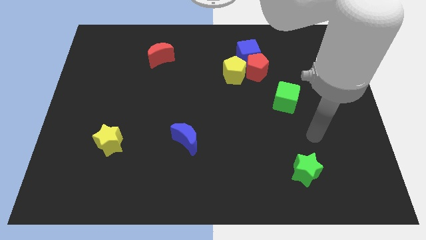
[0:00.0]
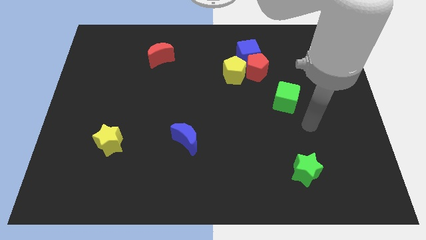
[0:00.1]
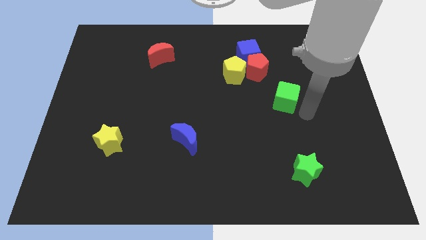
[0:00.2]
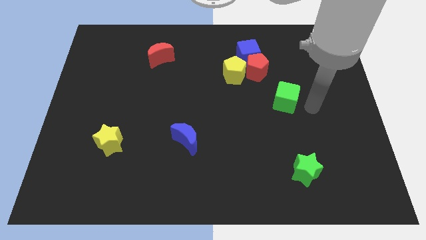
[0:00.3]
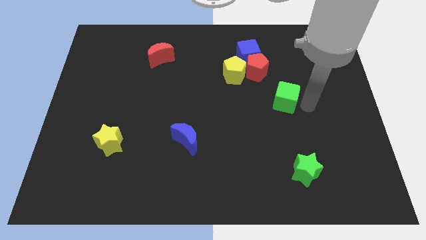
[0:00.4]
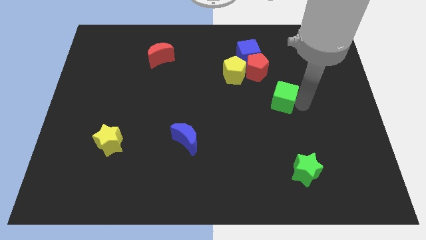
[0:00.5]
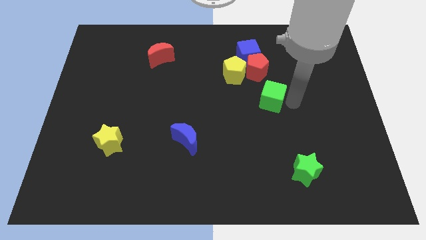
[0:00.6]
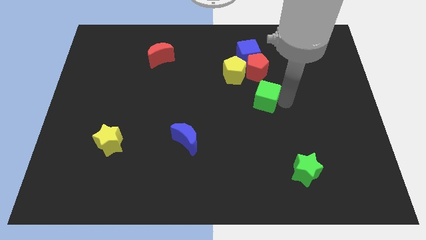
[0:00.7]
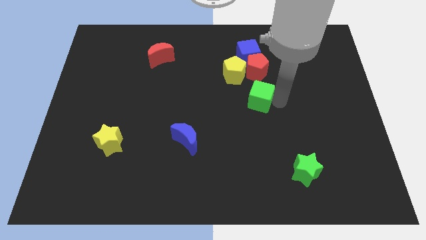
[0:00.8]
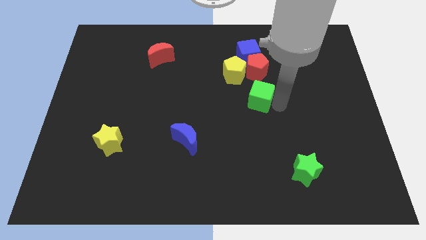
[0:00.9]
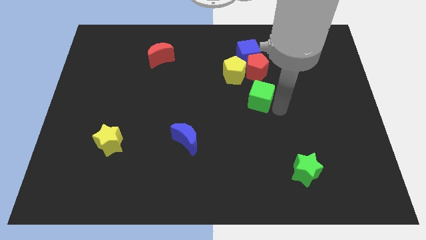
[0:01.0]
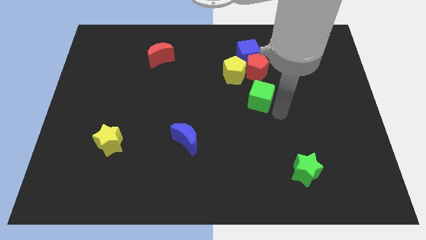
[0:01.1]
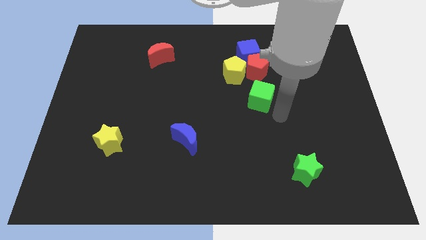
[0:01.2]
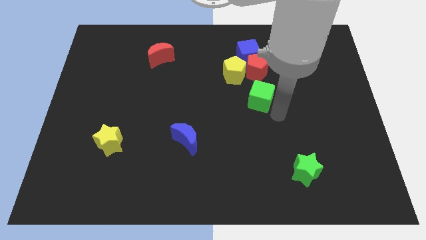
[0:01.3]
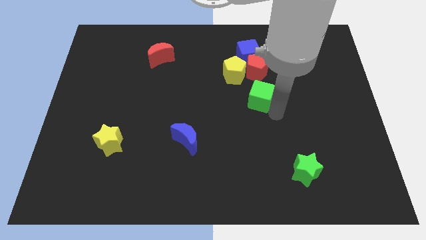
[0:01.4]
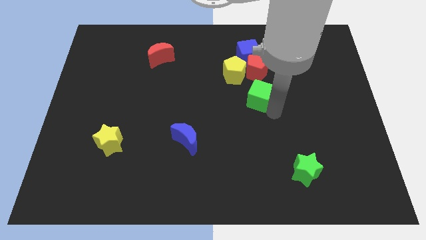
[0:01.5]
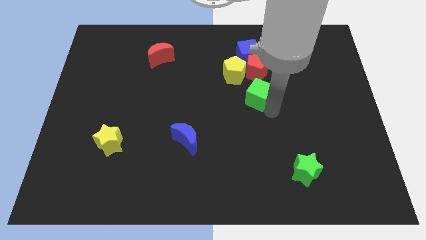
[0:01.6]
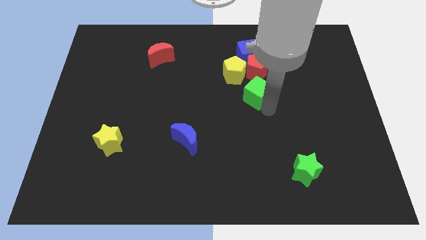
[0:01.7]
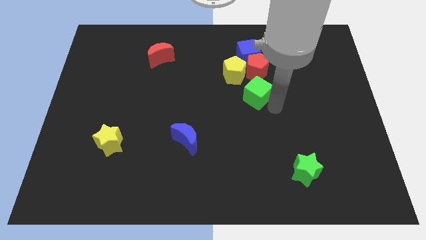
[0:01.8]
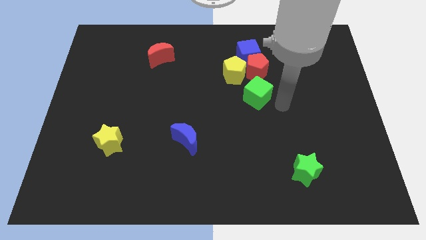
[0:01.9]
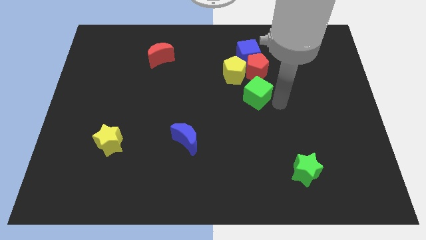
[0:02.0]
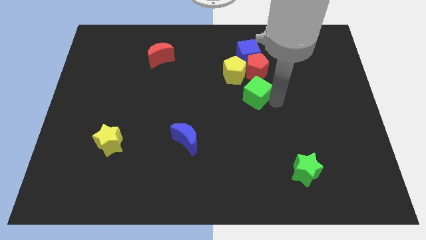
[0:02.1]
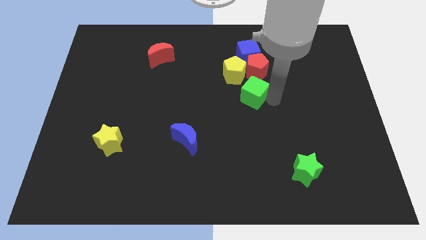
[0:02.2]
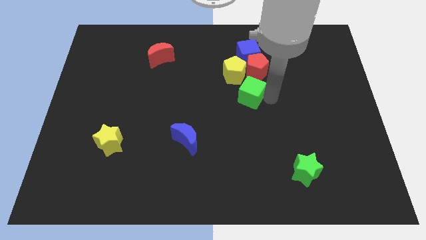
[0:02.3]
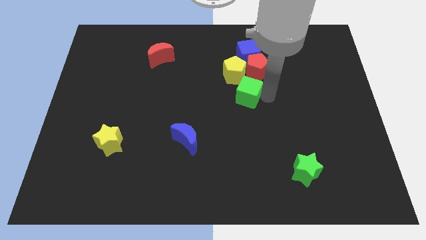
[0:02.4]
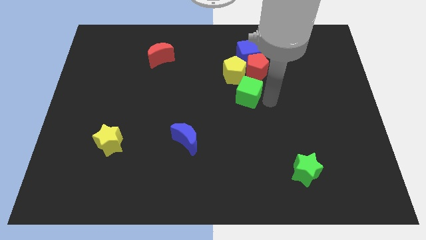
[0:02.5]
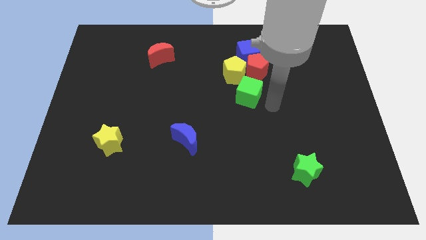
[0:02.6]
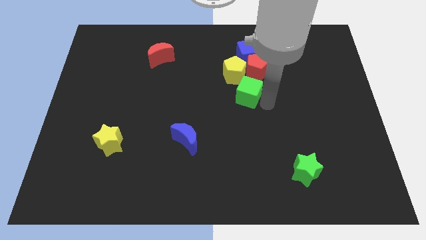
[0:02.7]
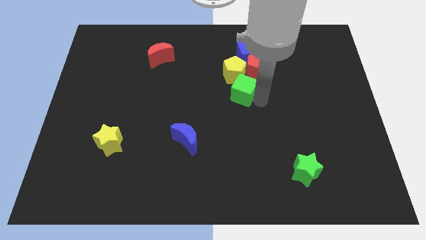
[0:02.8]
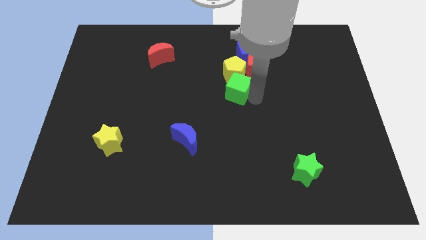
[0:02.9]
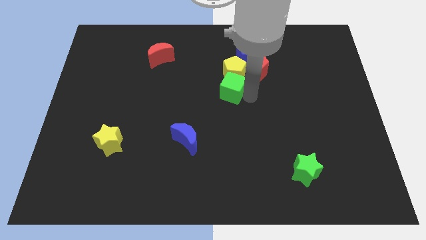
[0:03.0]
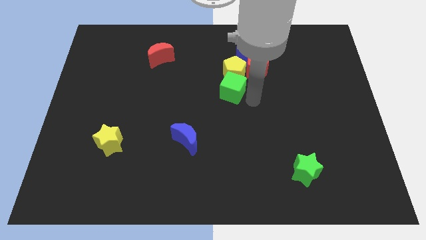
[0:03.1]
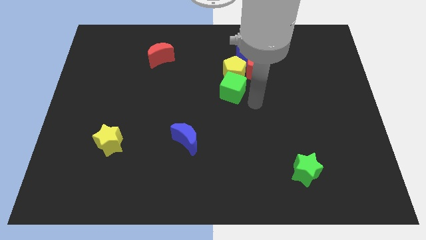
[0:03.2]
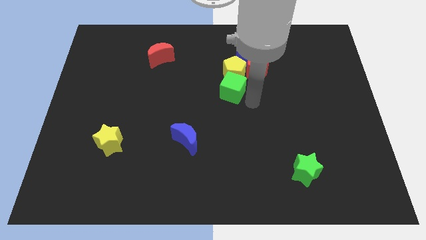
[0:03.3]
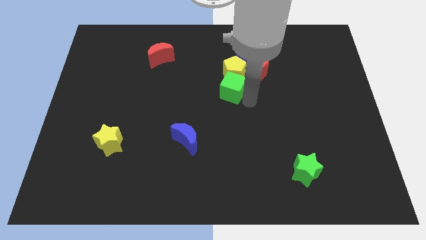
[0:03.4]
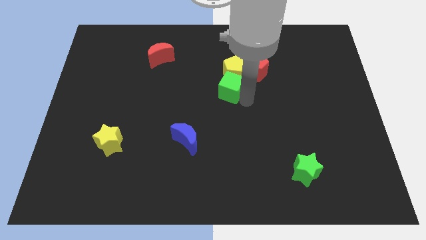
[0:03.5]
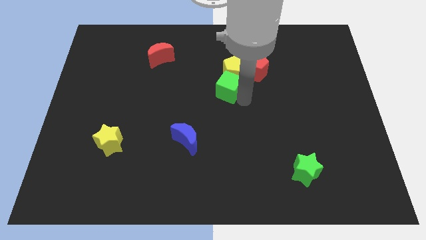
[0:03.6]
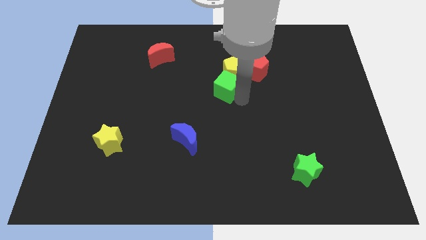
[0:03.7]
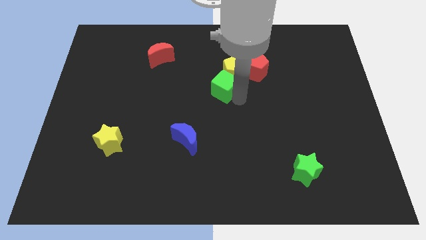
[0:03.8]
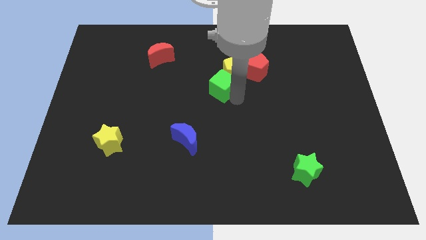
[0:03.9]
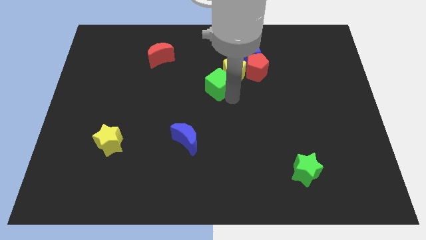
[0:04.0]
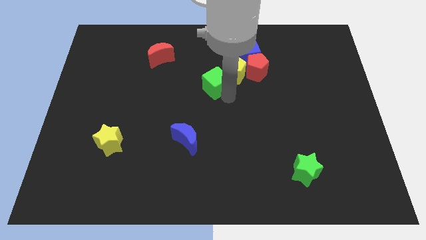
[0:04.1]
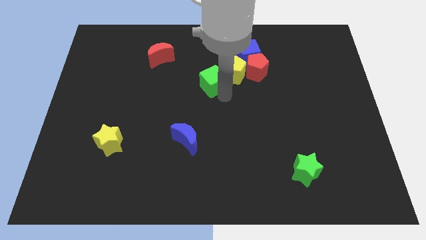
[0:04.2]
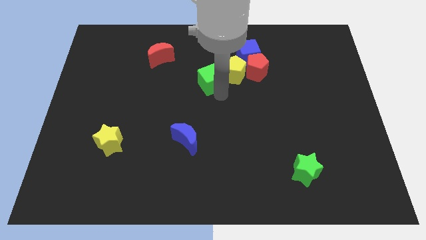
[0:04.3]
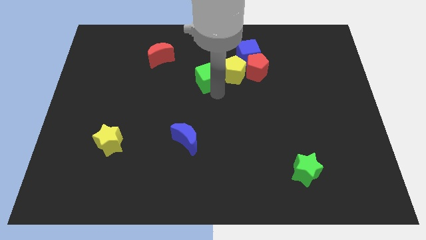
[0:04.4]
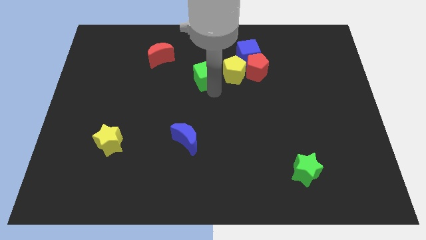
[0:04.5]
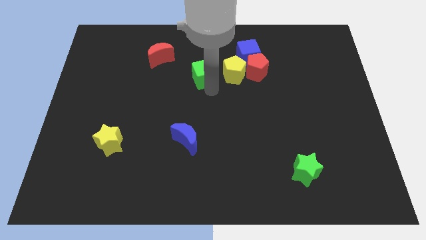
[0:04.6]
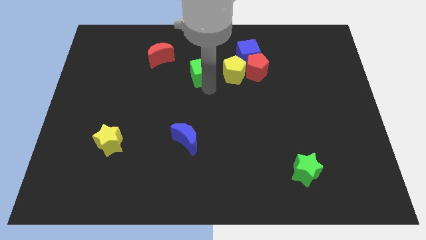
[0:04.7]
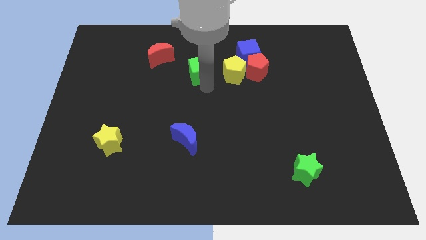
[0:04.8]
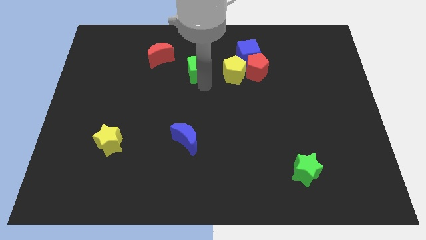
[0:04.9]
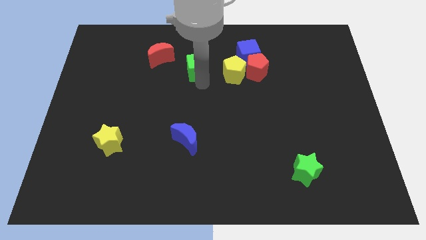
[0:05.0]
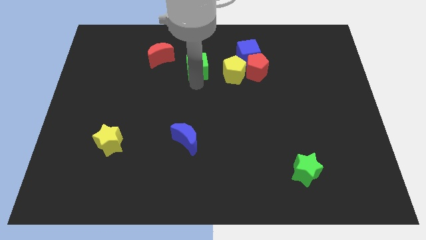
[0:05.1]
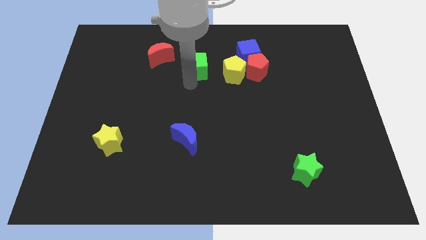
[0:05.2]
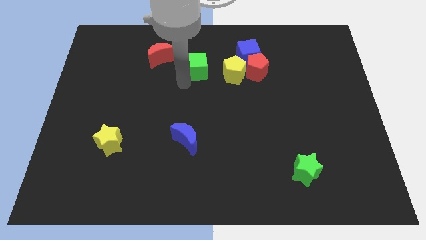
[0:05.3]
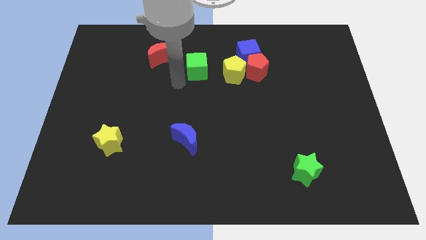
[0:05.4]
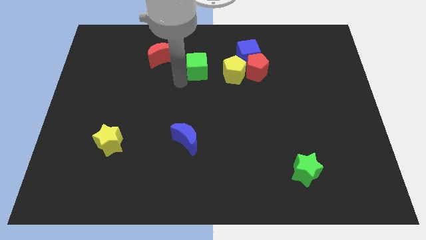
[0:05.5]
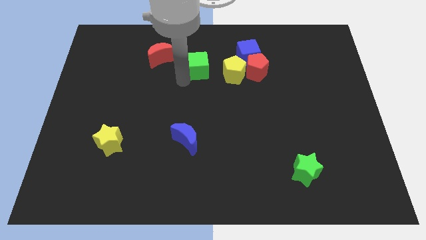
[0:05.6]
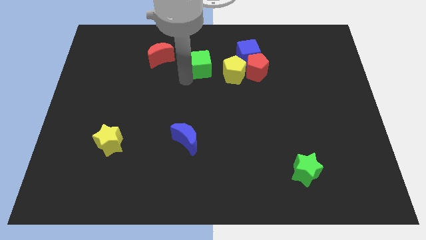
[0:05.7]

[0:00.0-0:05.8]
move the green cube diagonally up and to the left of the yellow pentagon

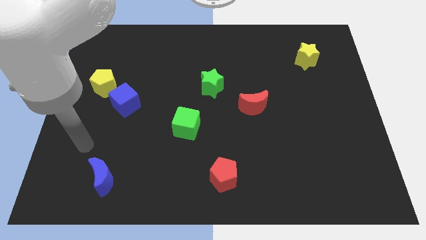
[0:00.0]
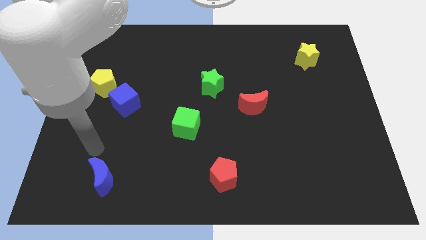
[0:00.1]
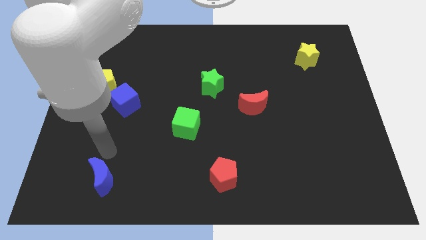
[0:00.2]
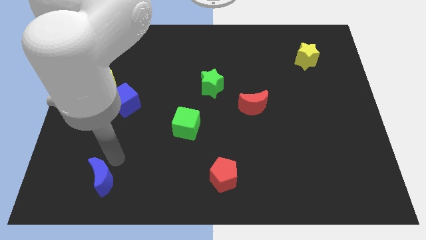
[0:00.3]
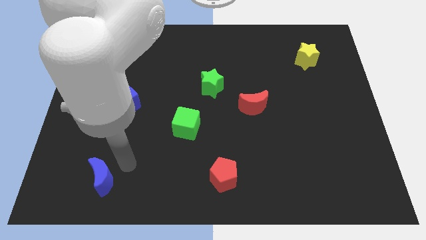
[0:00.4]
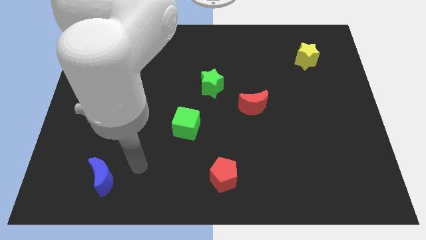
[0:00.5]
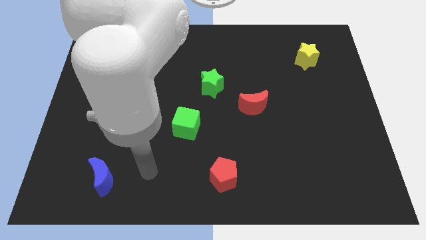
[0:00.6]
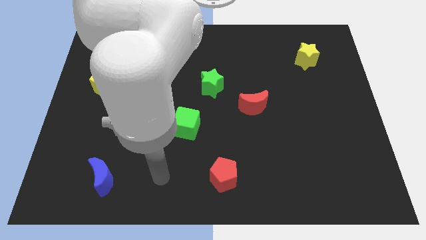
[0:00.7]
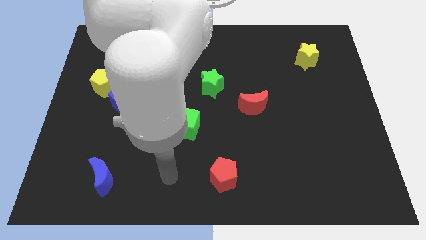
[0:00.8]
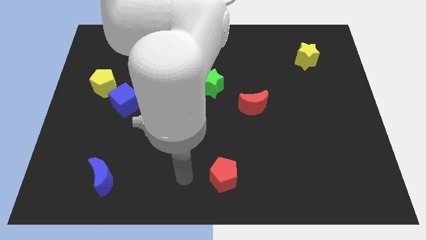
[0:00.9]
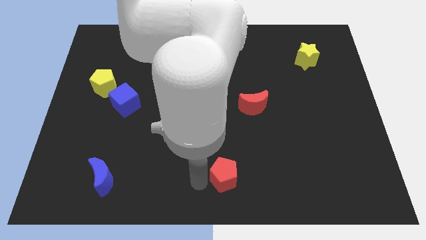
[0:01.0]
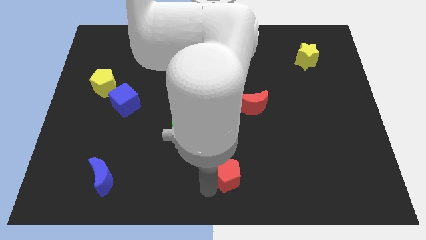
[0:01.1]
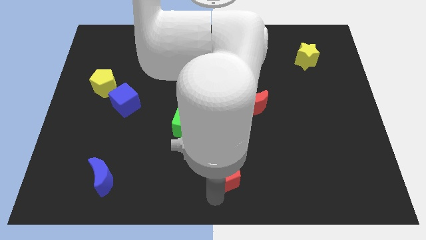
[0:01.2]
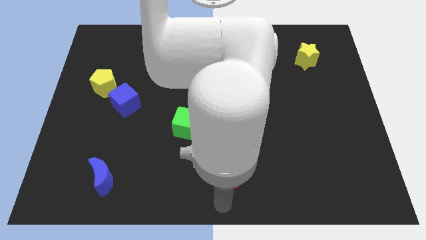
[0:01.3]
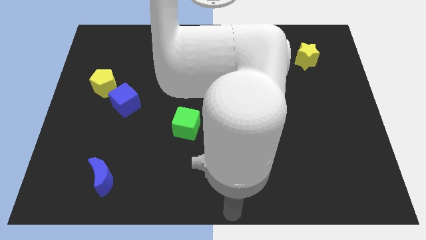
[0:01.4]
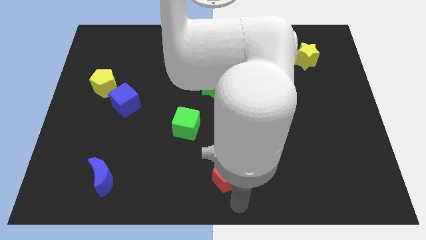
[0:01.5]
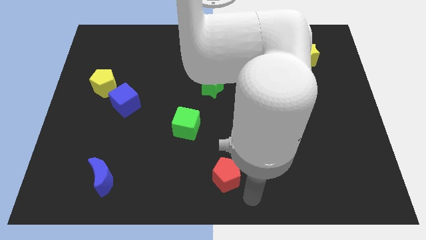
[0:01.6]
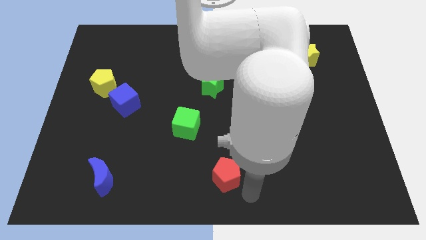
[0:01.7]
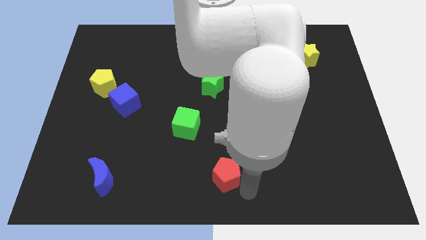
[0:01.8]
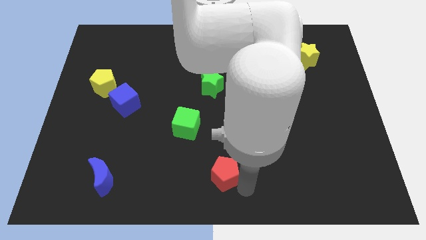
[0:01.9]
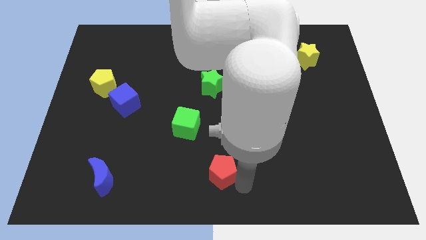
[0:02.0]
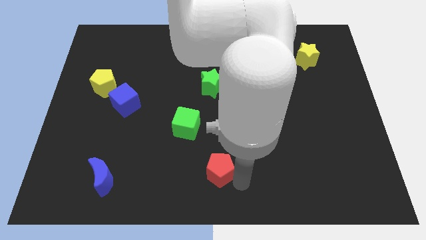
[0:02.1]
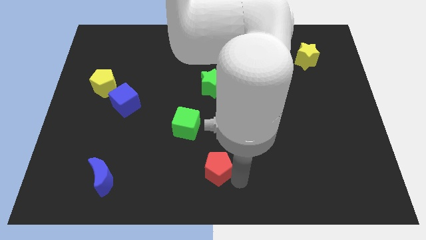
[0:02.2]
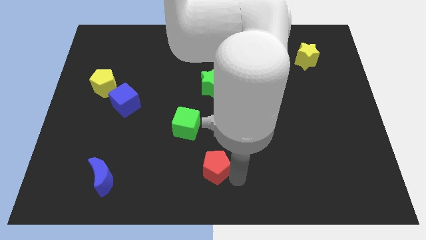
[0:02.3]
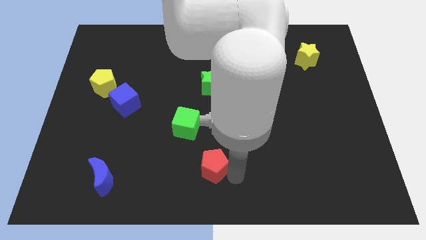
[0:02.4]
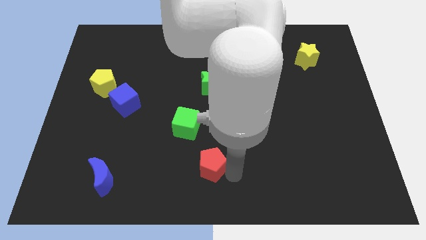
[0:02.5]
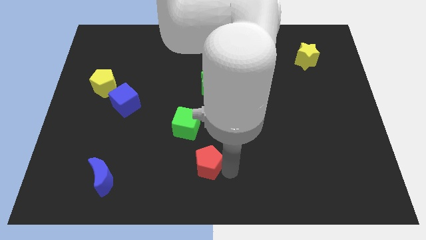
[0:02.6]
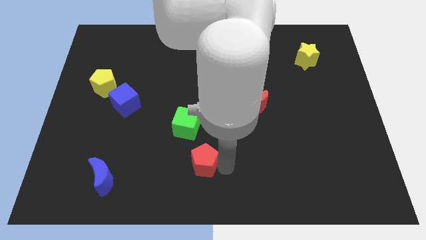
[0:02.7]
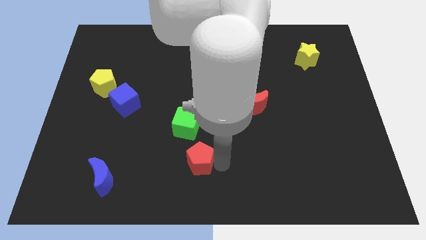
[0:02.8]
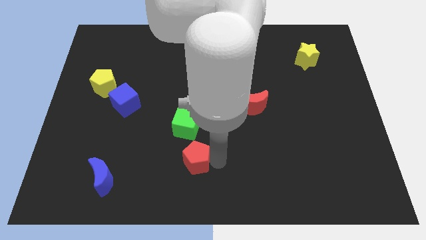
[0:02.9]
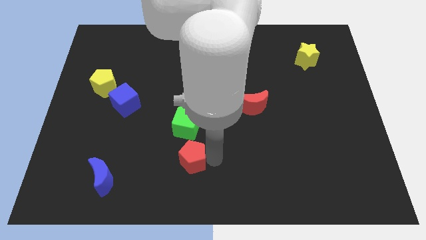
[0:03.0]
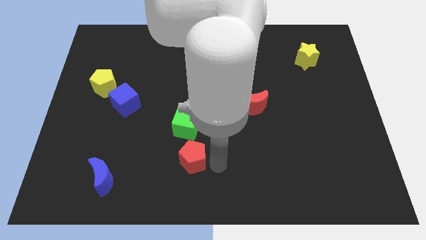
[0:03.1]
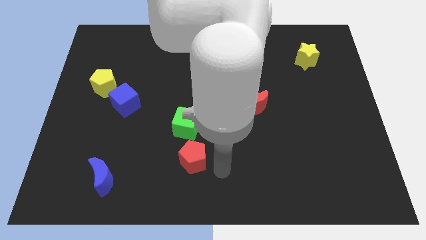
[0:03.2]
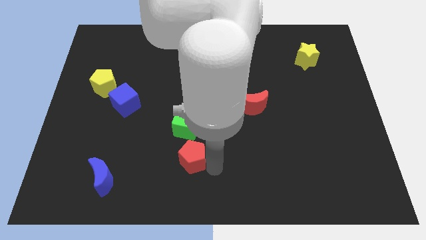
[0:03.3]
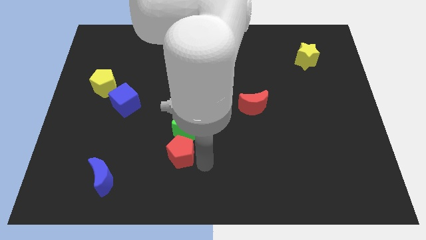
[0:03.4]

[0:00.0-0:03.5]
move the red pentagon diagonally down and to the left of the green cube
